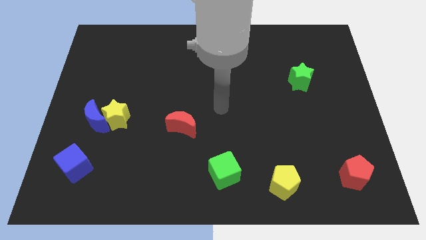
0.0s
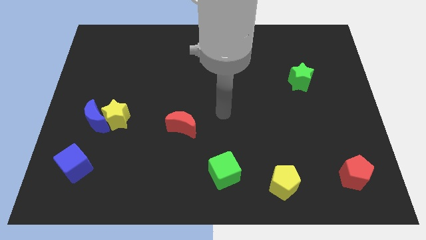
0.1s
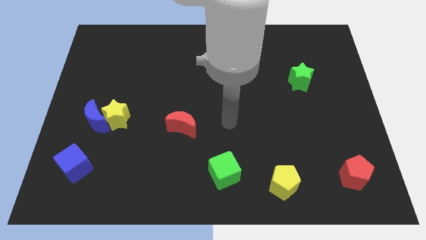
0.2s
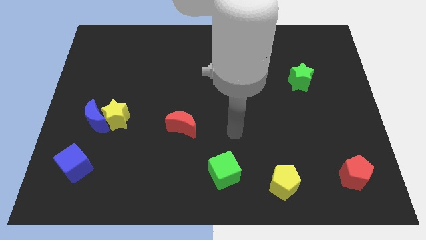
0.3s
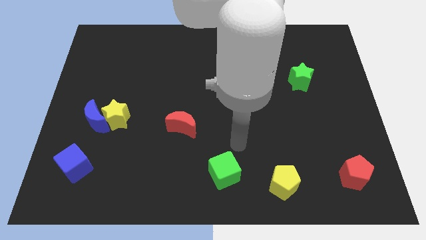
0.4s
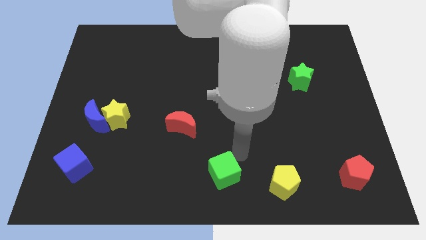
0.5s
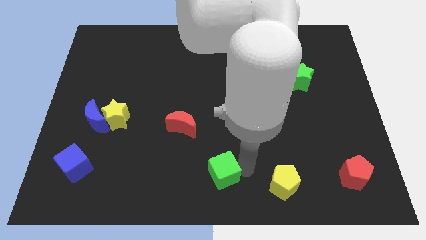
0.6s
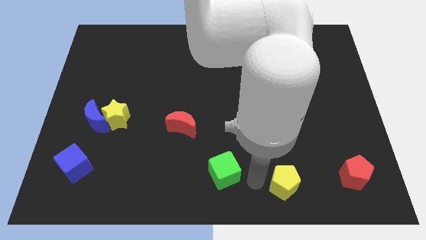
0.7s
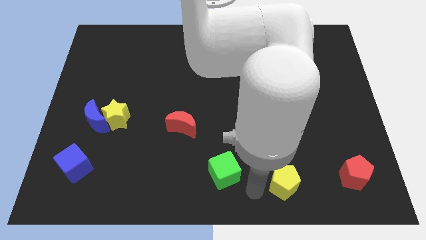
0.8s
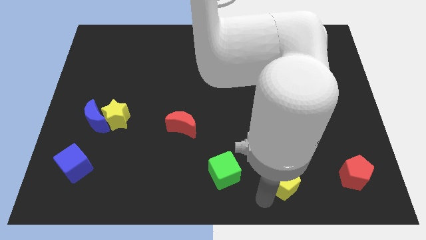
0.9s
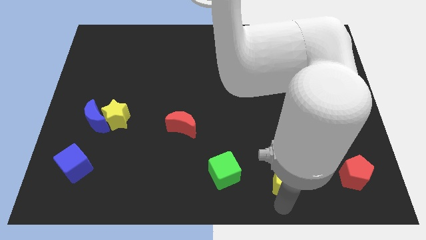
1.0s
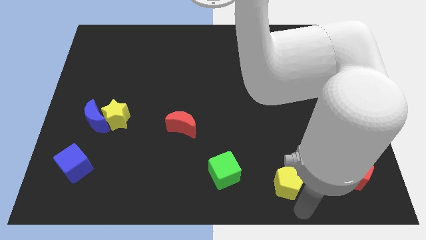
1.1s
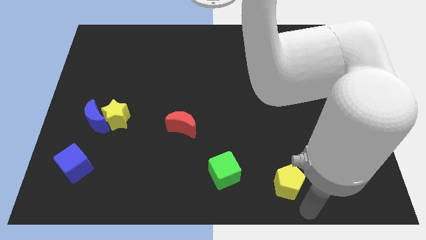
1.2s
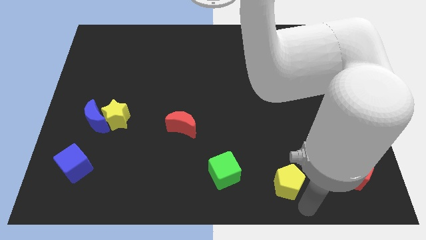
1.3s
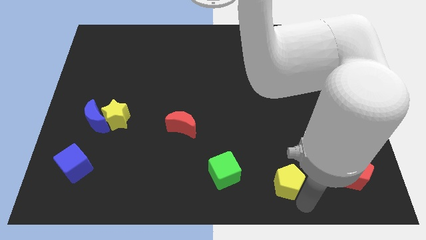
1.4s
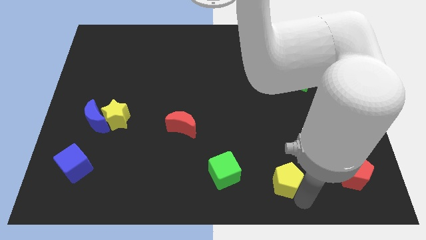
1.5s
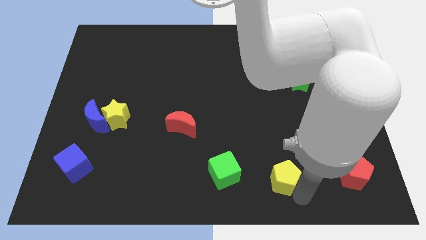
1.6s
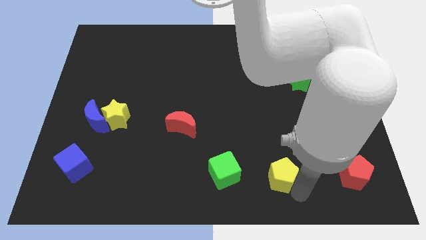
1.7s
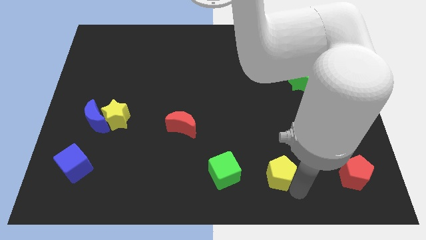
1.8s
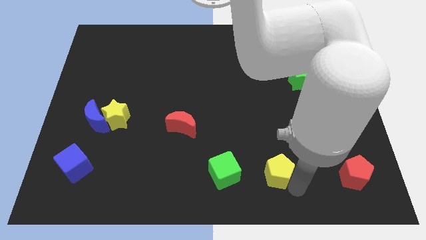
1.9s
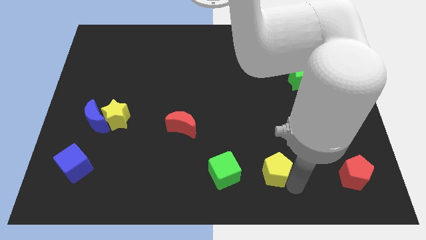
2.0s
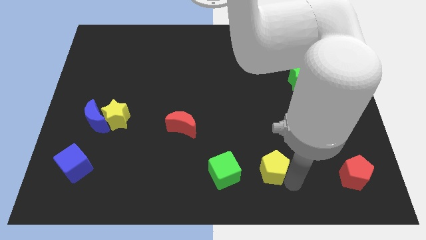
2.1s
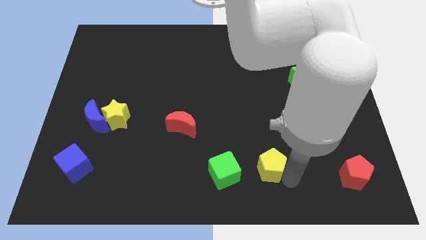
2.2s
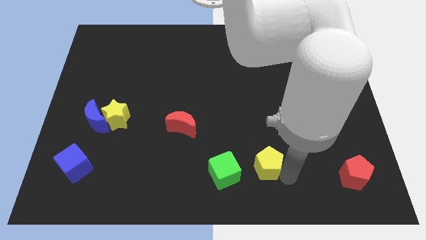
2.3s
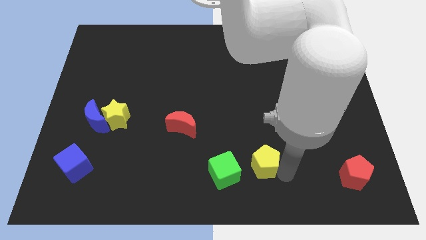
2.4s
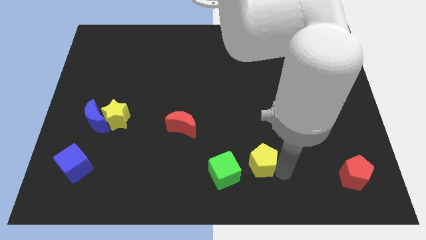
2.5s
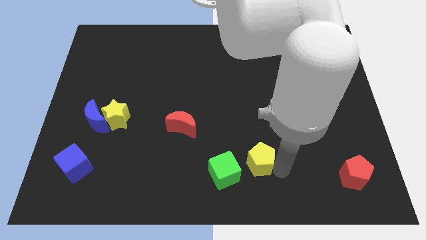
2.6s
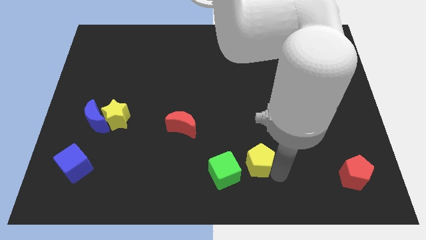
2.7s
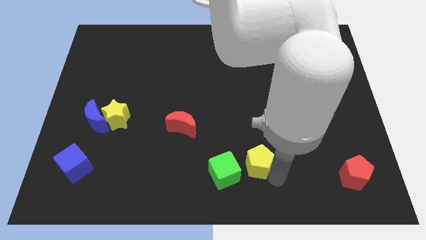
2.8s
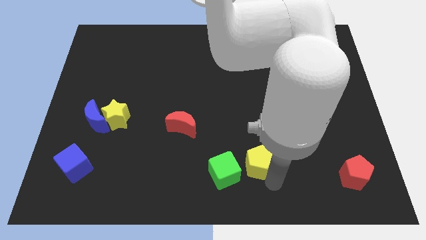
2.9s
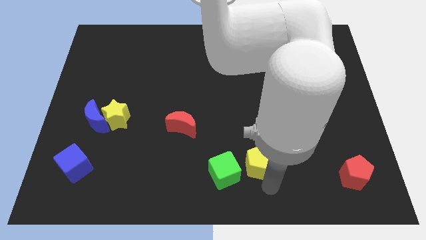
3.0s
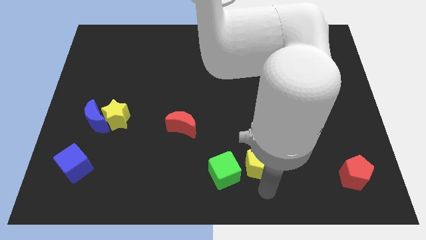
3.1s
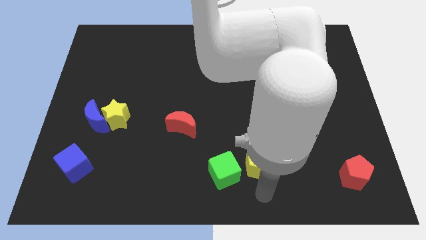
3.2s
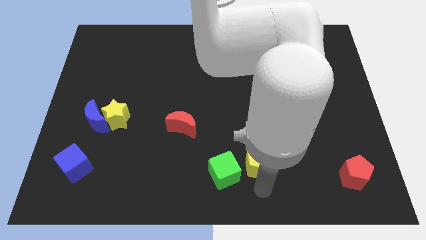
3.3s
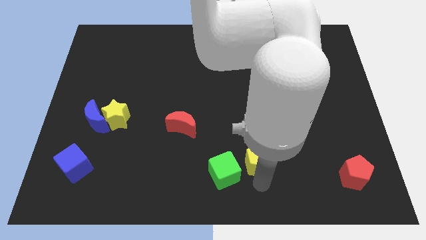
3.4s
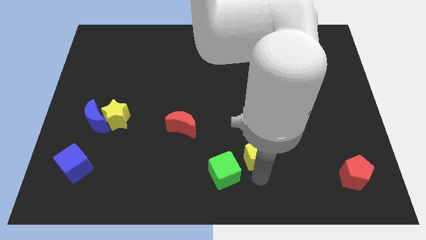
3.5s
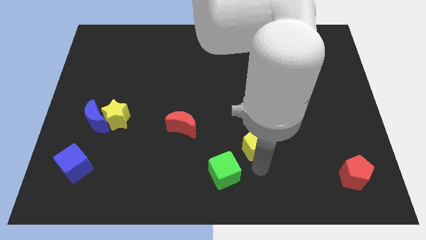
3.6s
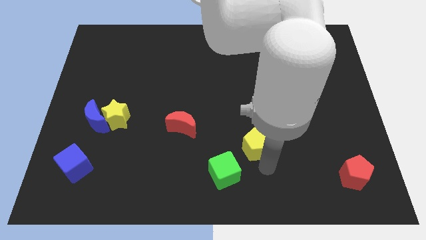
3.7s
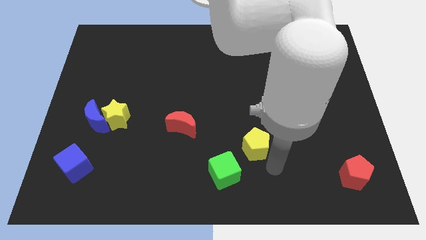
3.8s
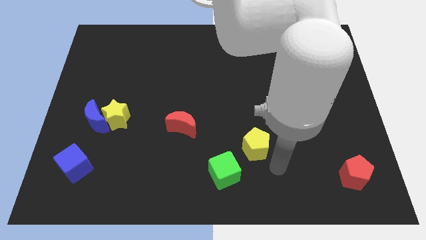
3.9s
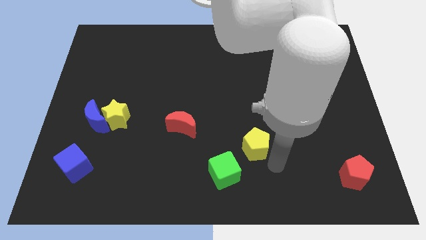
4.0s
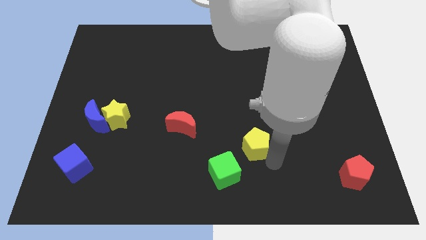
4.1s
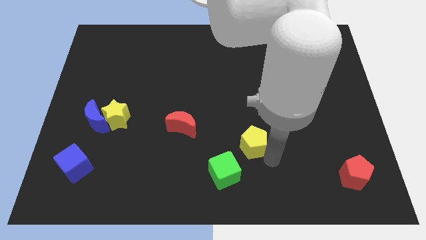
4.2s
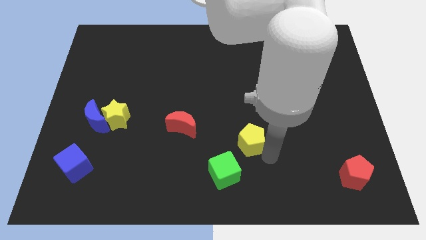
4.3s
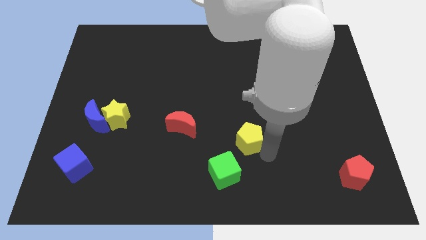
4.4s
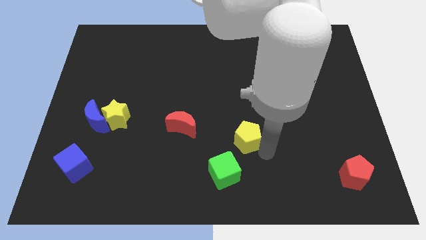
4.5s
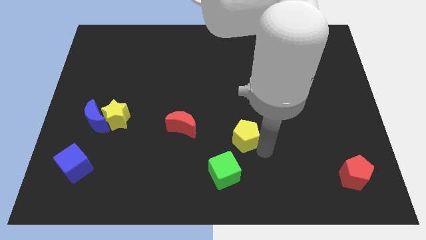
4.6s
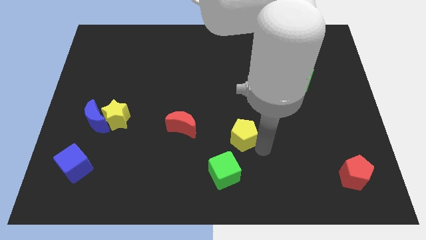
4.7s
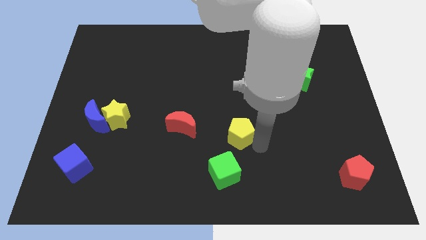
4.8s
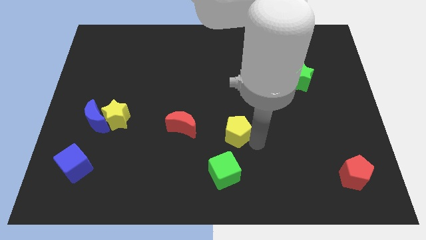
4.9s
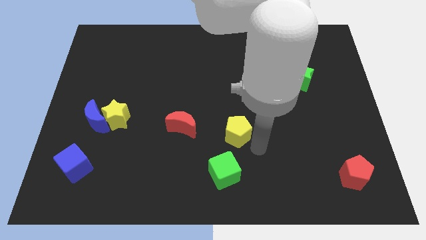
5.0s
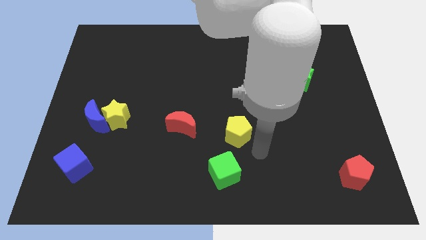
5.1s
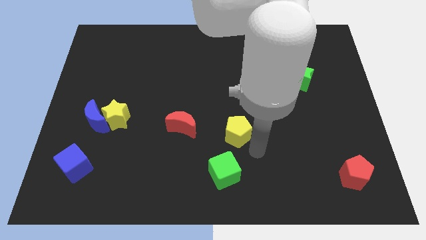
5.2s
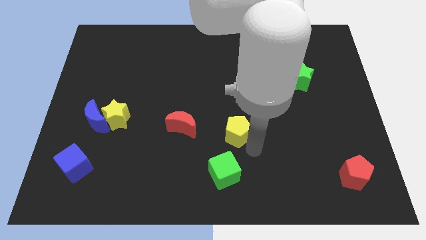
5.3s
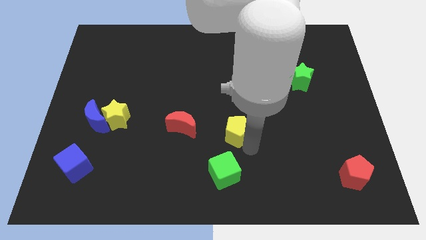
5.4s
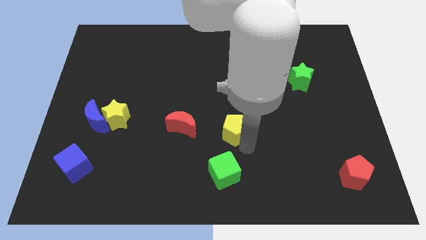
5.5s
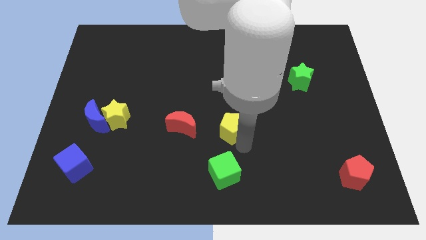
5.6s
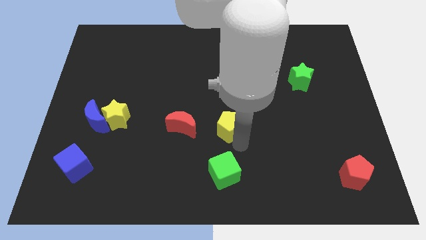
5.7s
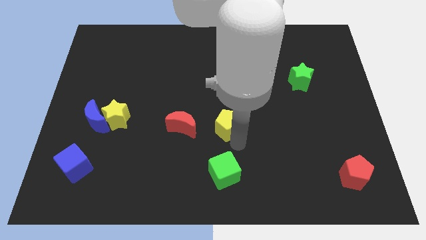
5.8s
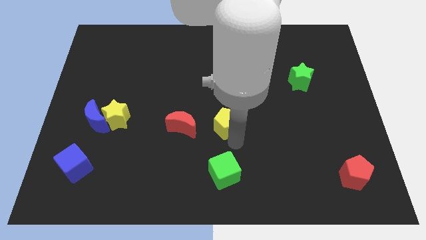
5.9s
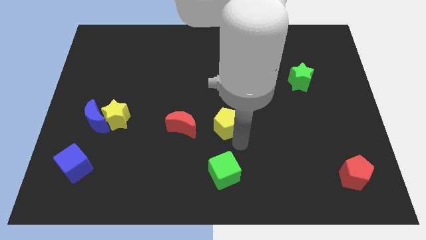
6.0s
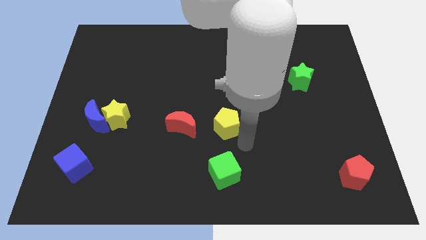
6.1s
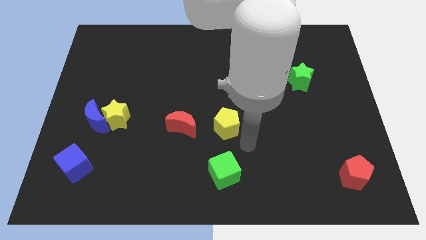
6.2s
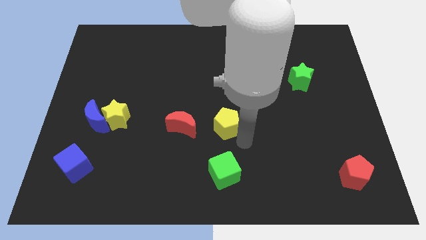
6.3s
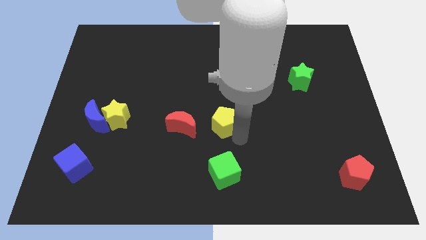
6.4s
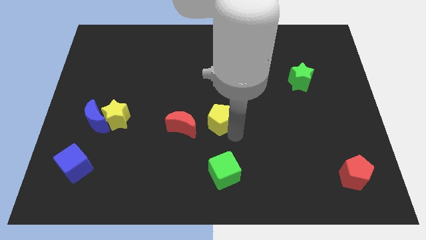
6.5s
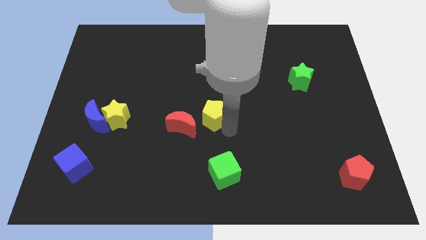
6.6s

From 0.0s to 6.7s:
push the yellow pentagon diagonally up and to the left

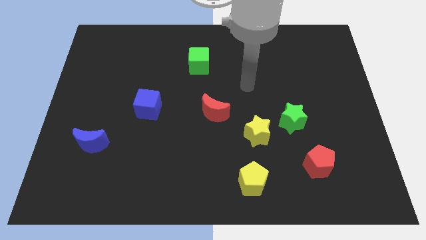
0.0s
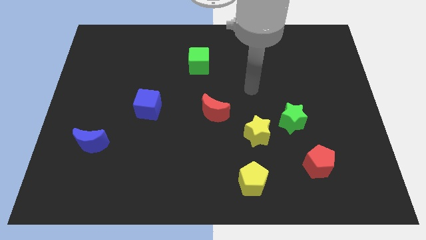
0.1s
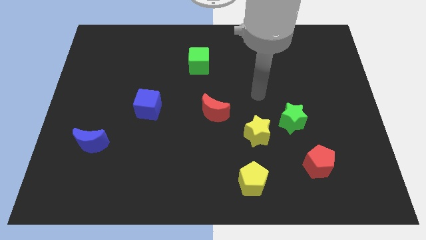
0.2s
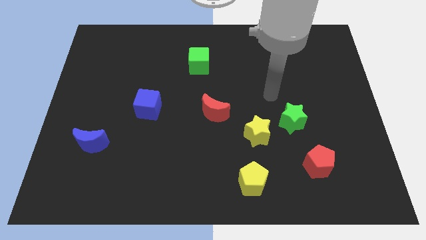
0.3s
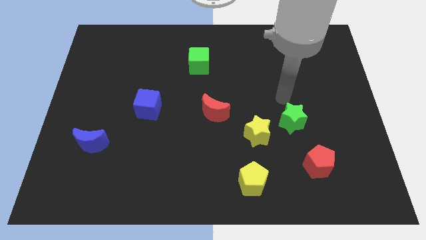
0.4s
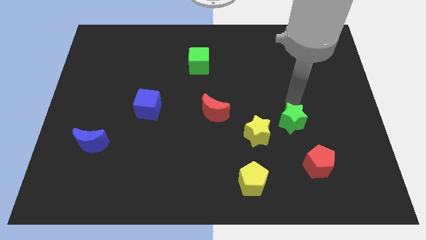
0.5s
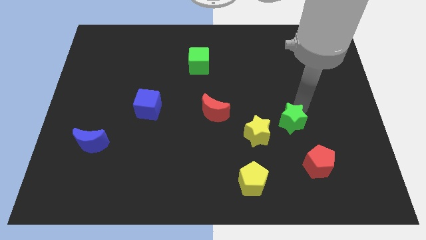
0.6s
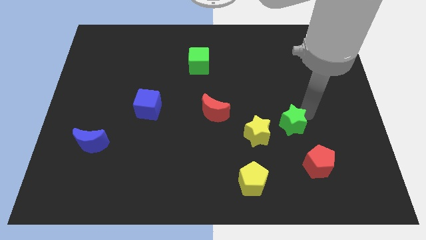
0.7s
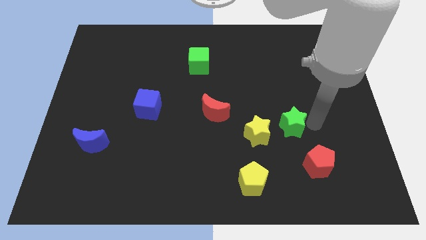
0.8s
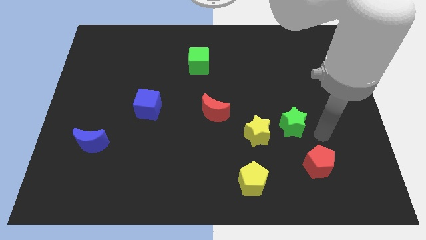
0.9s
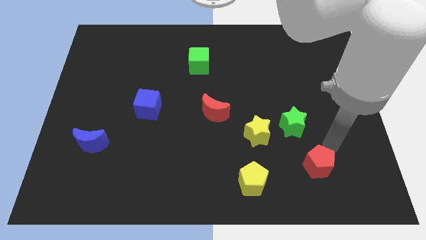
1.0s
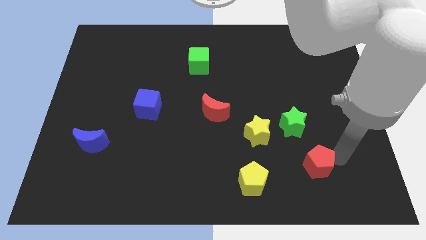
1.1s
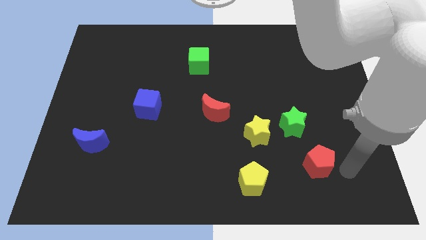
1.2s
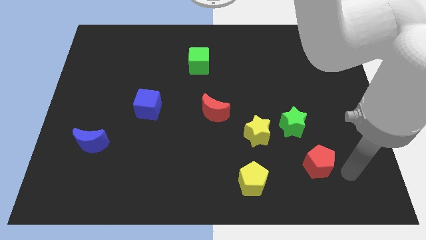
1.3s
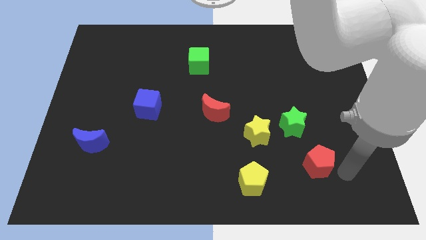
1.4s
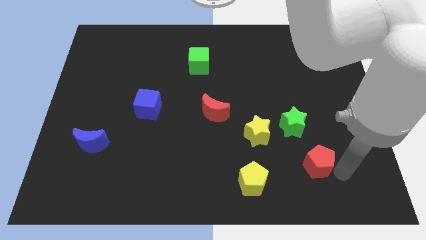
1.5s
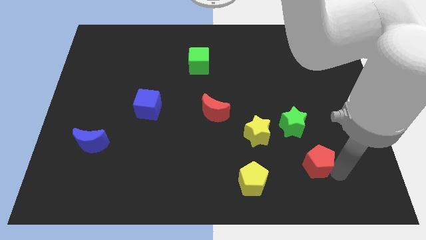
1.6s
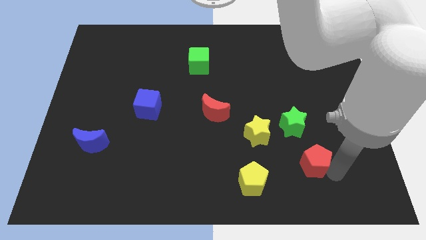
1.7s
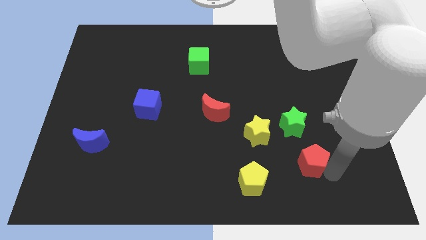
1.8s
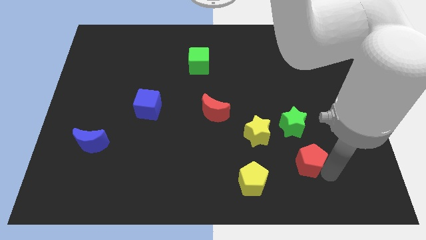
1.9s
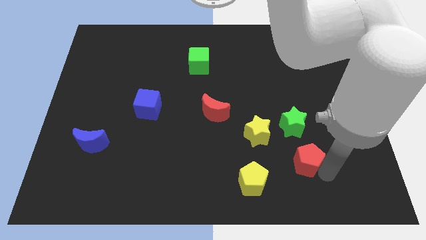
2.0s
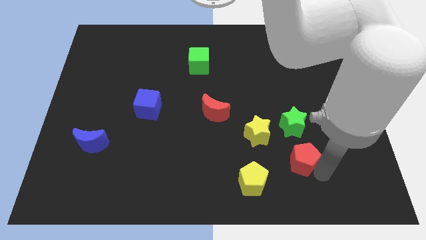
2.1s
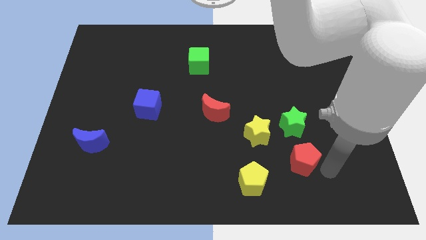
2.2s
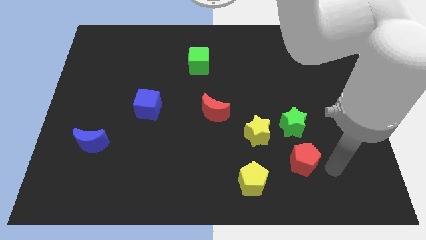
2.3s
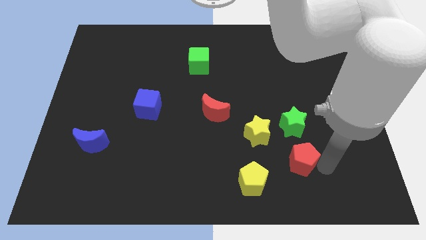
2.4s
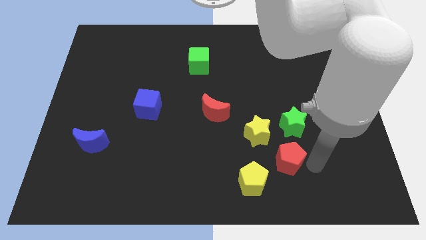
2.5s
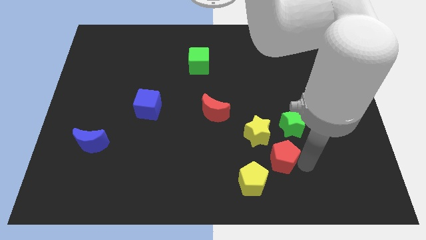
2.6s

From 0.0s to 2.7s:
slightly move the red pentagon left
